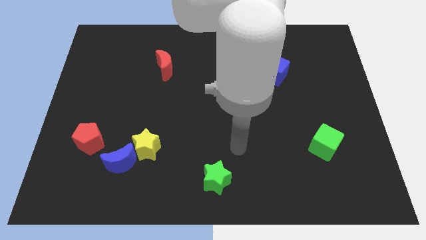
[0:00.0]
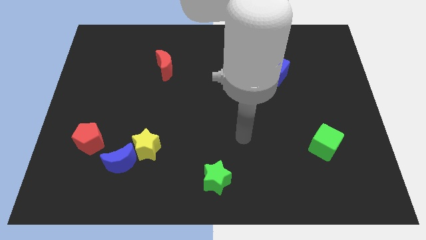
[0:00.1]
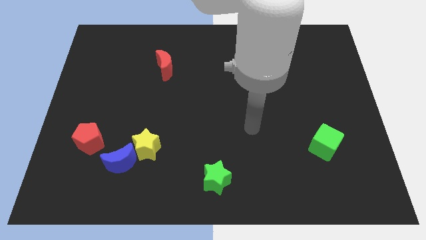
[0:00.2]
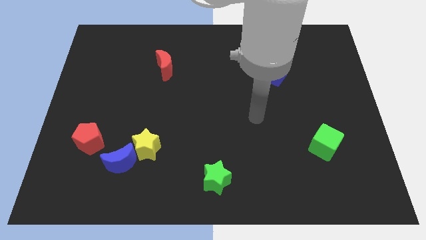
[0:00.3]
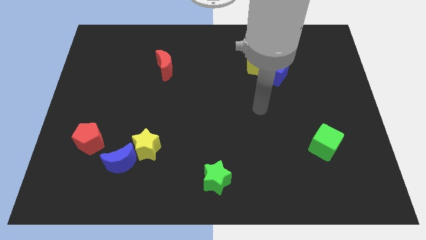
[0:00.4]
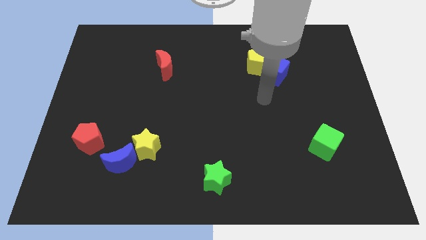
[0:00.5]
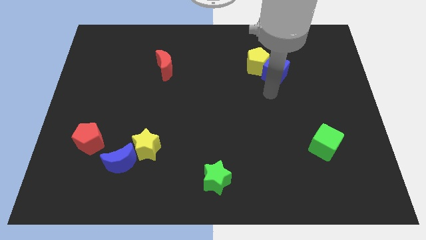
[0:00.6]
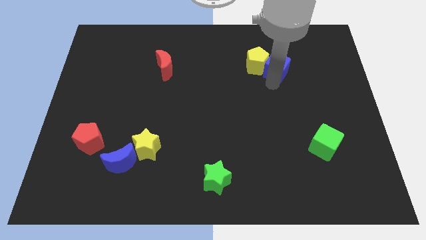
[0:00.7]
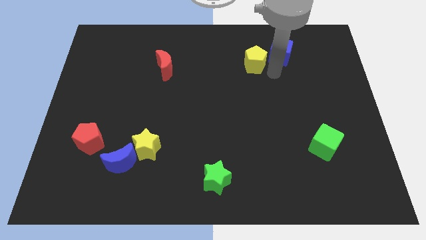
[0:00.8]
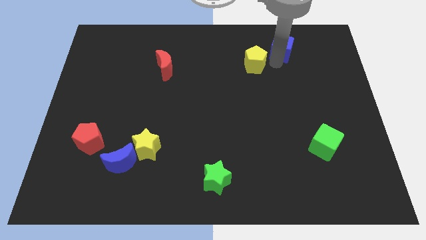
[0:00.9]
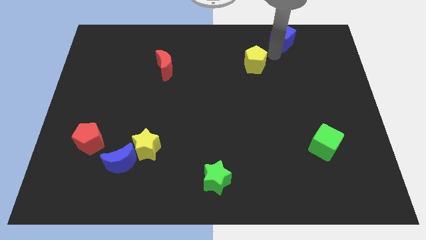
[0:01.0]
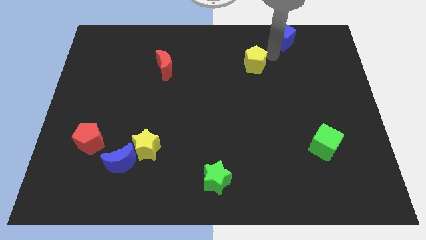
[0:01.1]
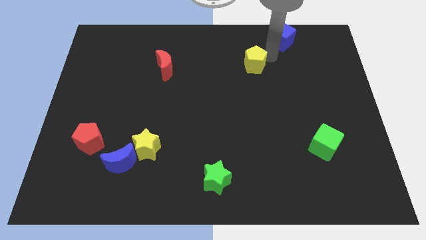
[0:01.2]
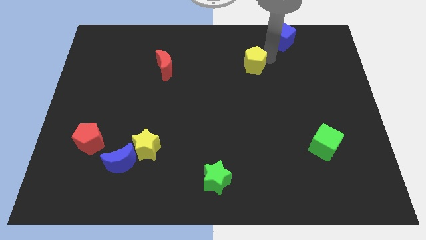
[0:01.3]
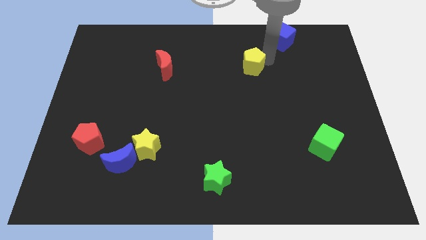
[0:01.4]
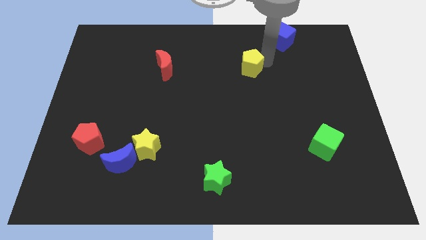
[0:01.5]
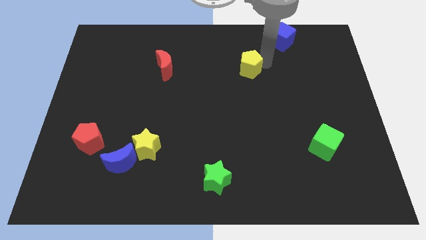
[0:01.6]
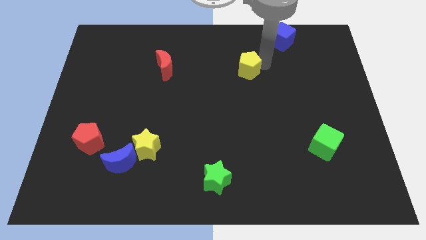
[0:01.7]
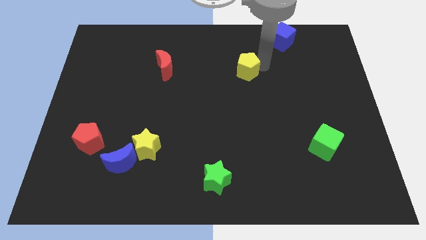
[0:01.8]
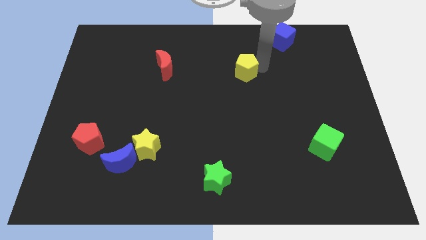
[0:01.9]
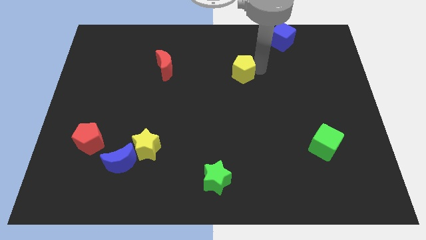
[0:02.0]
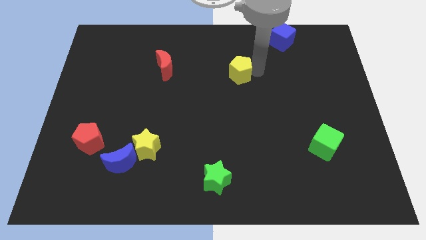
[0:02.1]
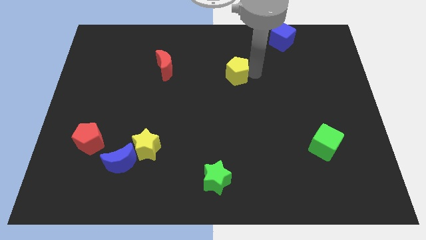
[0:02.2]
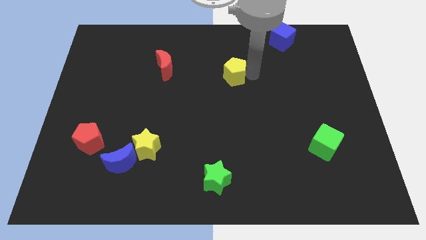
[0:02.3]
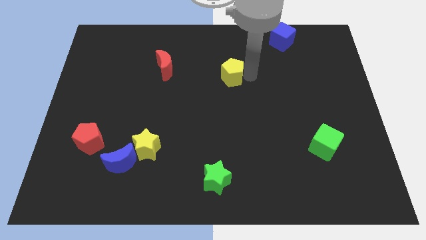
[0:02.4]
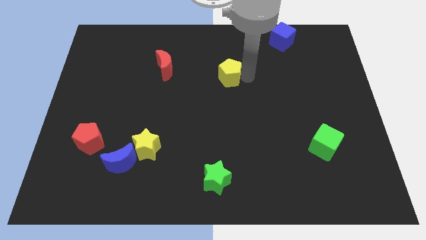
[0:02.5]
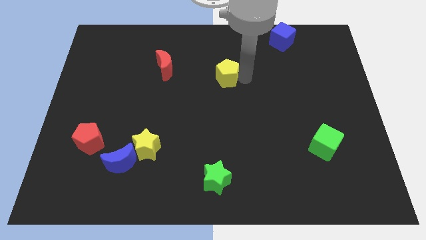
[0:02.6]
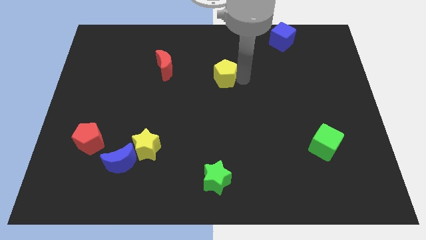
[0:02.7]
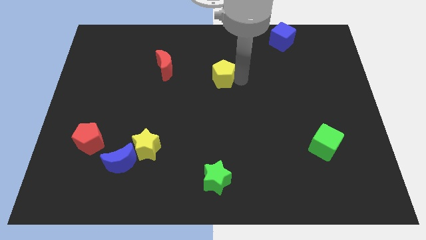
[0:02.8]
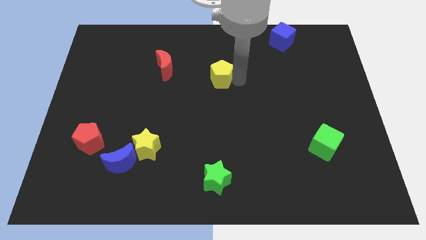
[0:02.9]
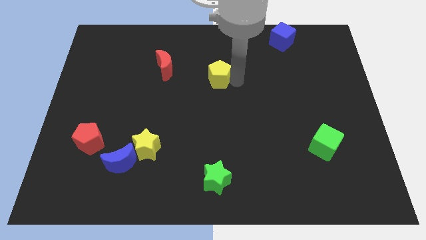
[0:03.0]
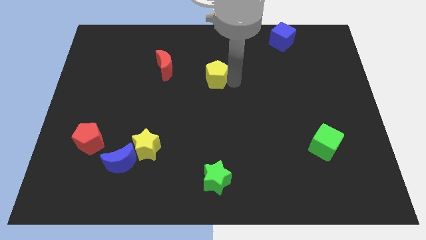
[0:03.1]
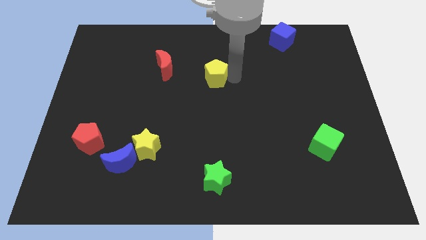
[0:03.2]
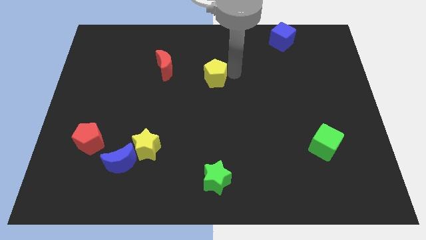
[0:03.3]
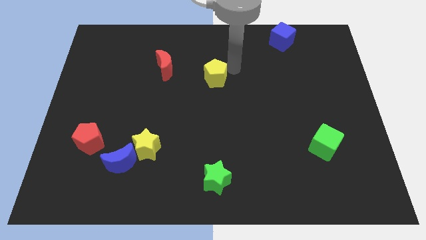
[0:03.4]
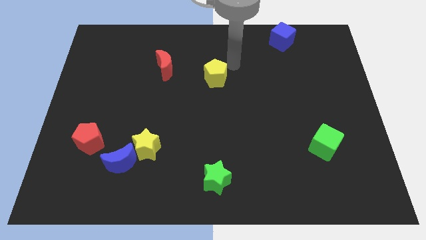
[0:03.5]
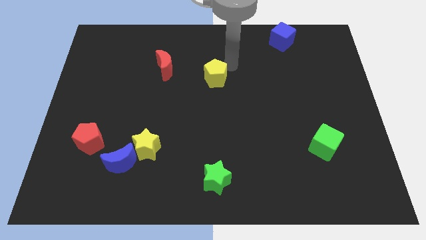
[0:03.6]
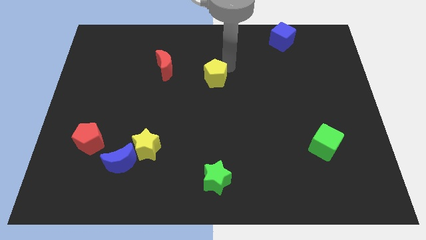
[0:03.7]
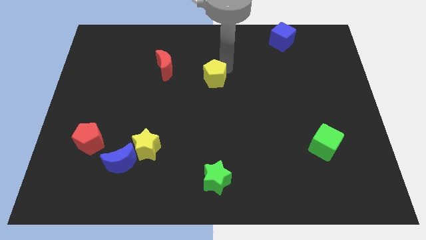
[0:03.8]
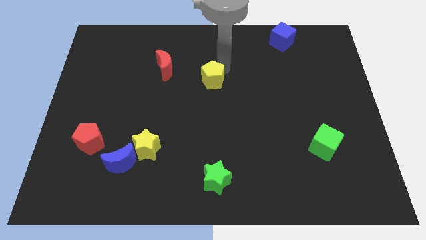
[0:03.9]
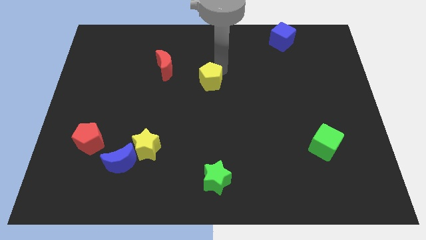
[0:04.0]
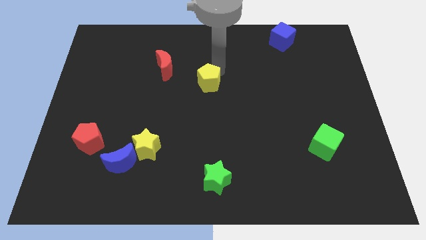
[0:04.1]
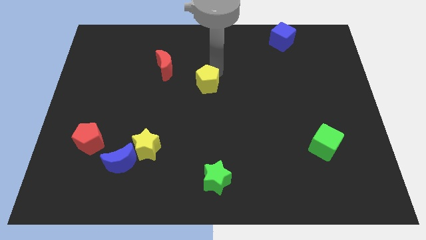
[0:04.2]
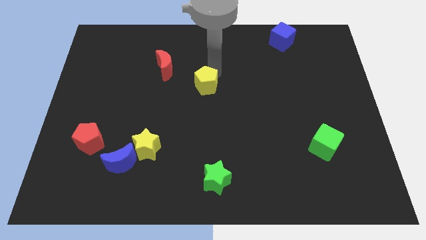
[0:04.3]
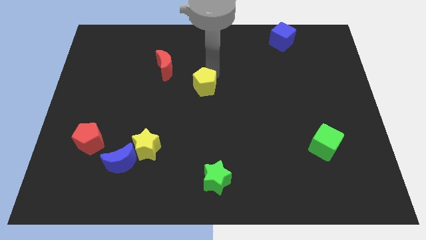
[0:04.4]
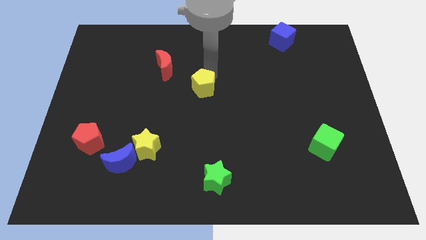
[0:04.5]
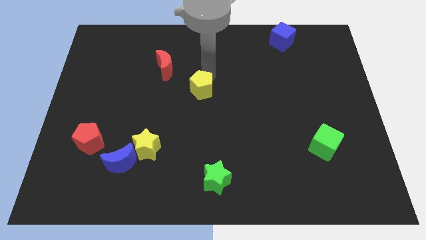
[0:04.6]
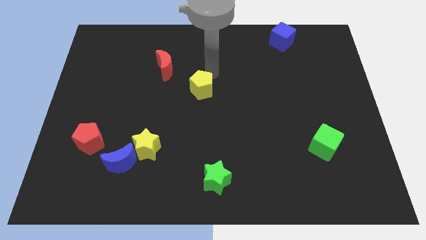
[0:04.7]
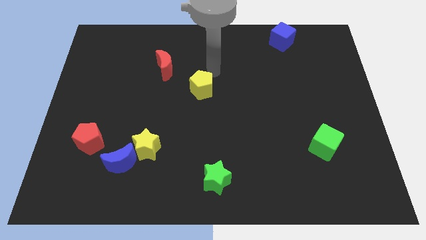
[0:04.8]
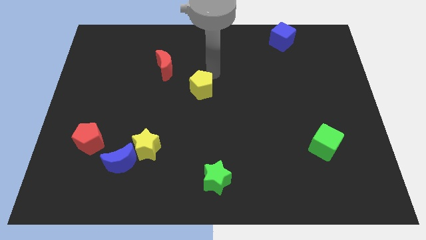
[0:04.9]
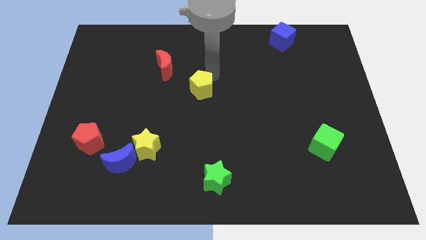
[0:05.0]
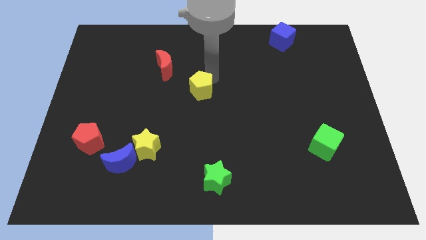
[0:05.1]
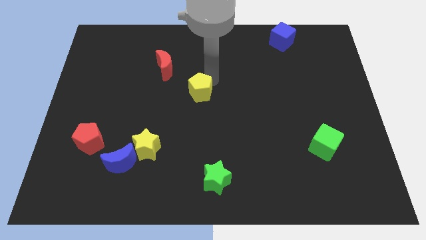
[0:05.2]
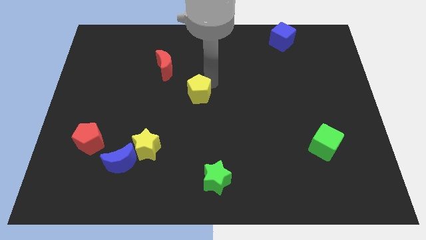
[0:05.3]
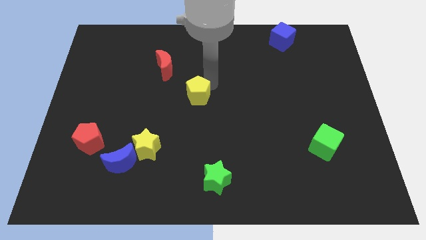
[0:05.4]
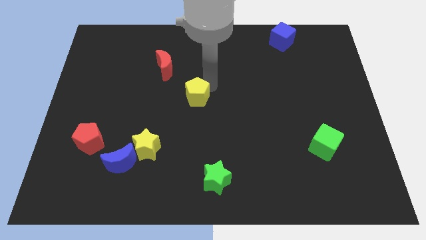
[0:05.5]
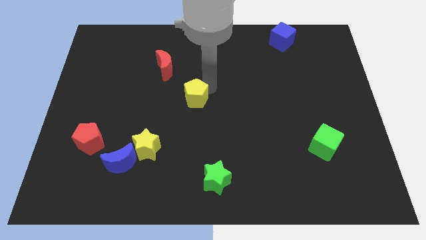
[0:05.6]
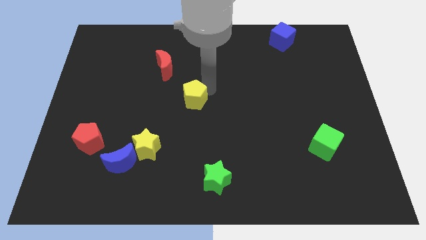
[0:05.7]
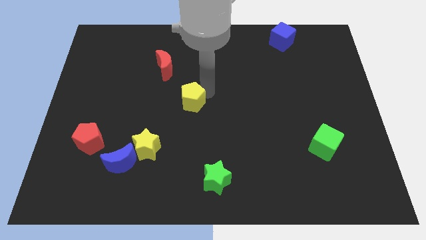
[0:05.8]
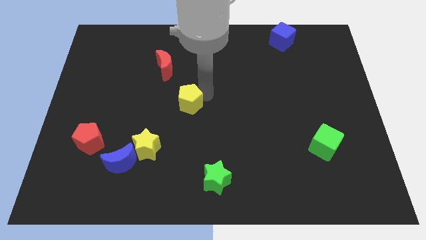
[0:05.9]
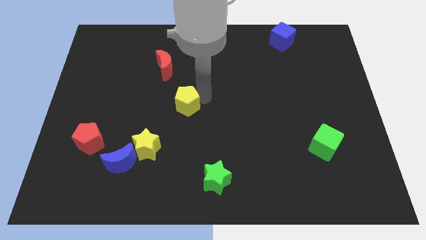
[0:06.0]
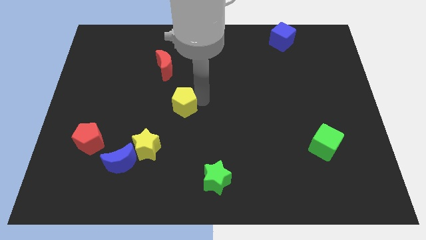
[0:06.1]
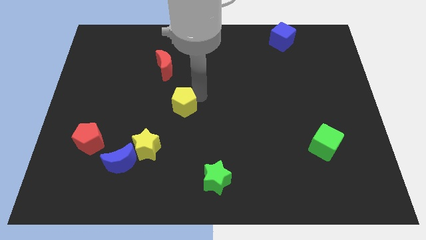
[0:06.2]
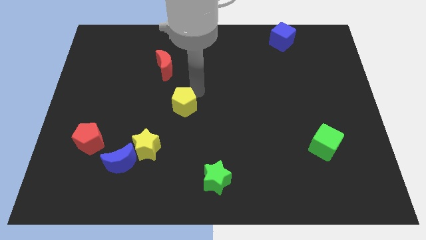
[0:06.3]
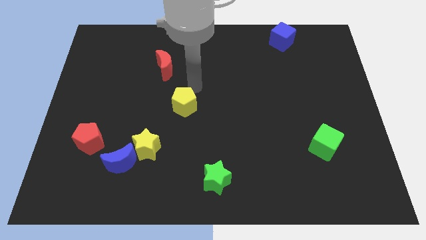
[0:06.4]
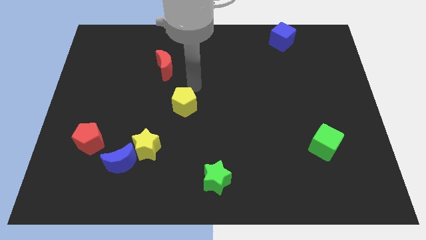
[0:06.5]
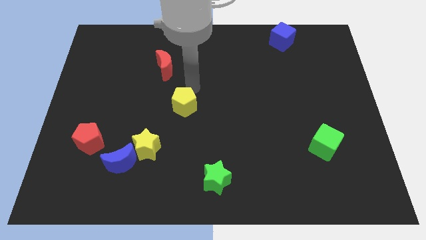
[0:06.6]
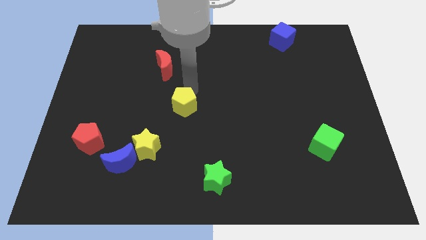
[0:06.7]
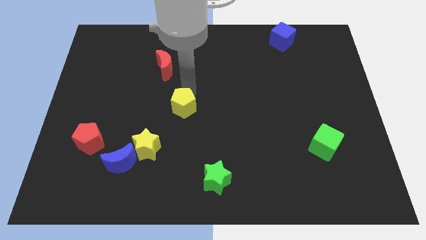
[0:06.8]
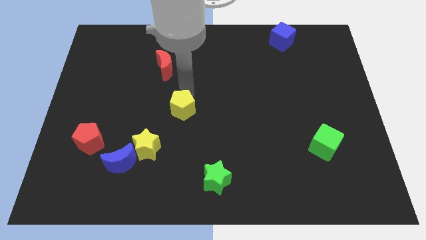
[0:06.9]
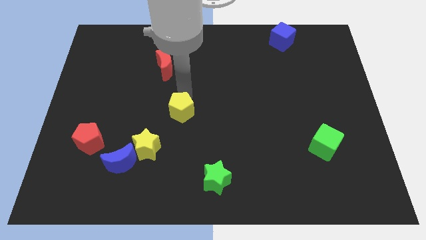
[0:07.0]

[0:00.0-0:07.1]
put the yellow pentagon to the top right of the yellow star
